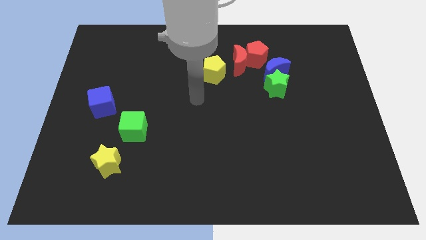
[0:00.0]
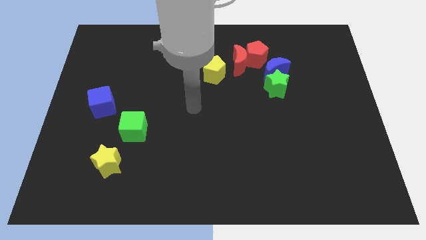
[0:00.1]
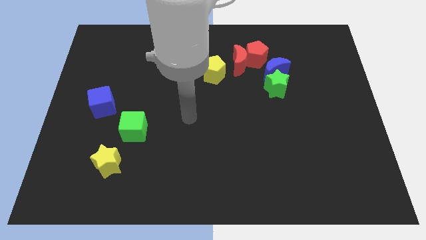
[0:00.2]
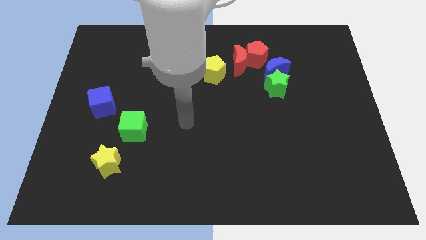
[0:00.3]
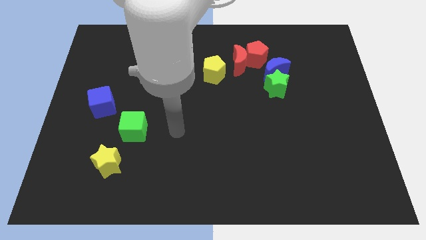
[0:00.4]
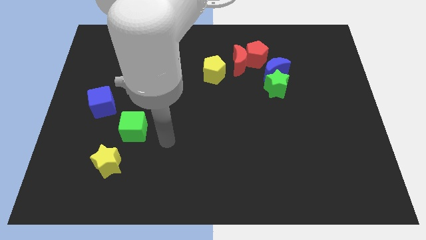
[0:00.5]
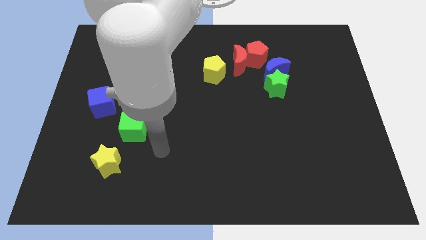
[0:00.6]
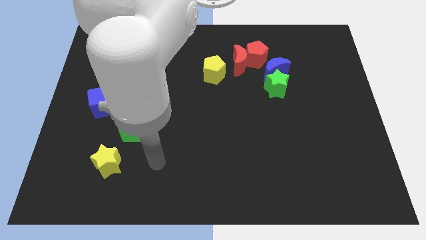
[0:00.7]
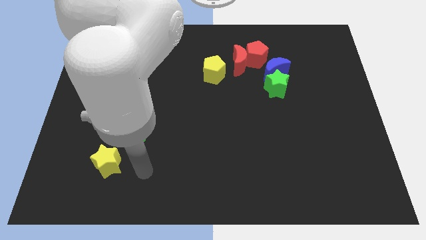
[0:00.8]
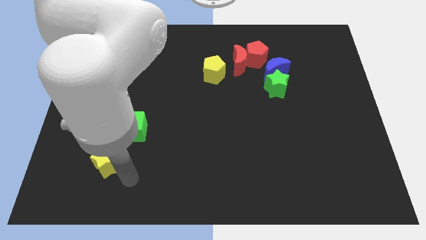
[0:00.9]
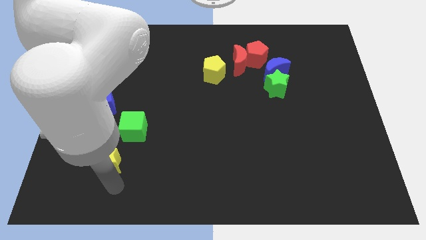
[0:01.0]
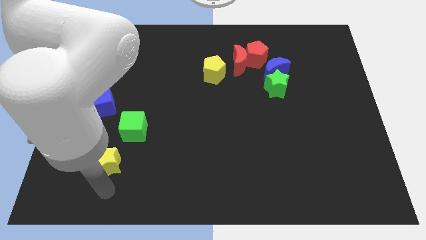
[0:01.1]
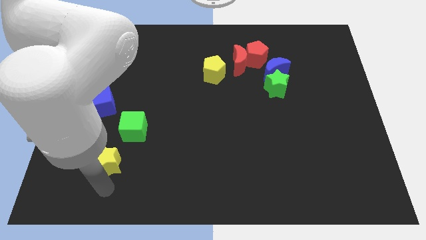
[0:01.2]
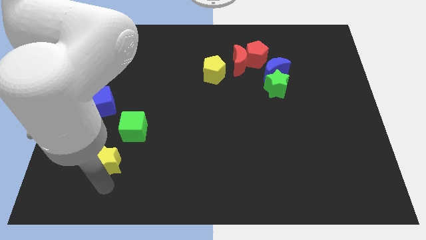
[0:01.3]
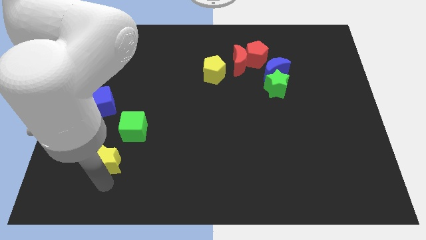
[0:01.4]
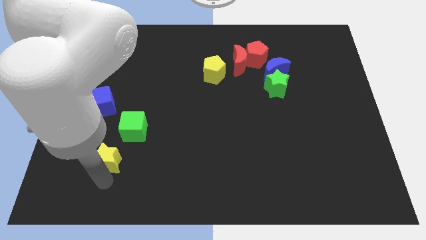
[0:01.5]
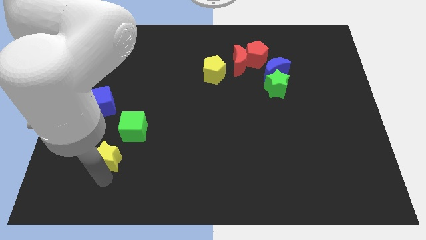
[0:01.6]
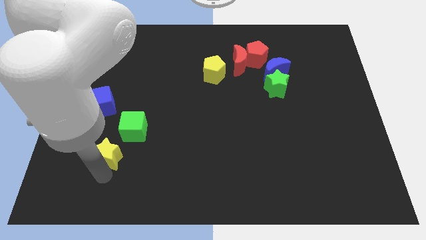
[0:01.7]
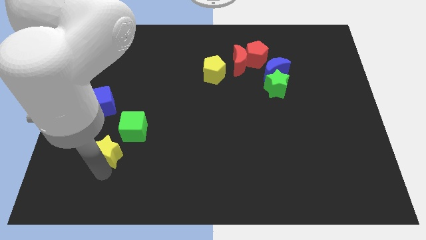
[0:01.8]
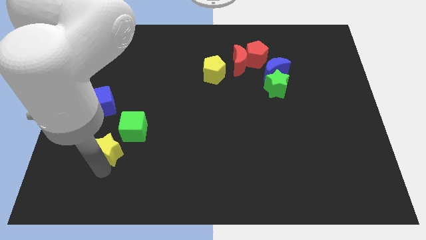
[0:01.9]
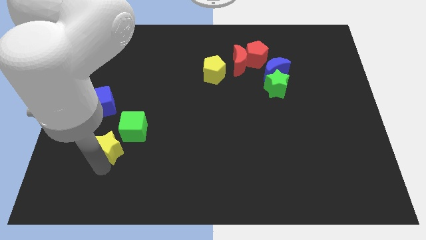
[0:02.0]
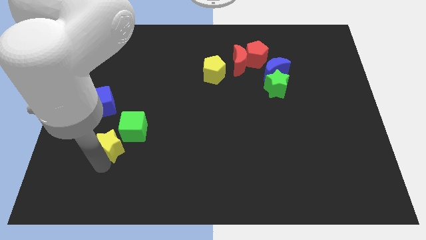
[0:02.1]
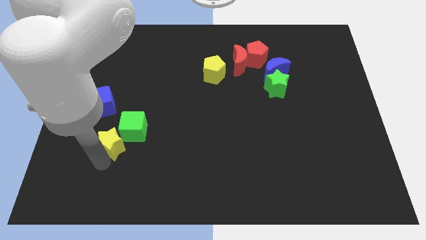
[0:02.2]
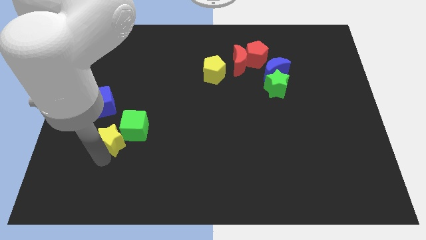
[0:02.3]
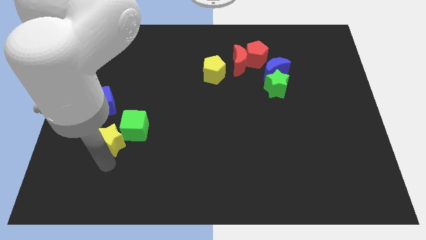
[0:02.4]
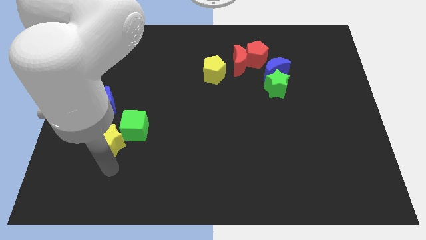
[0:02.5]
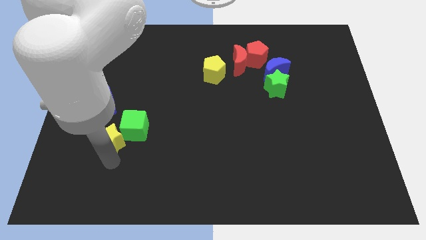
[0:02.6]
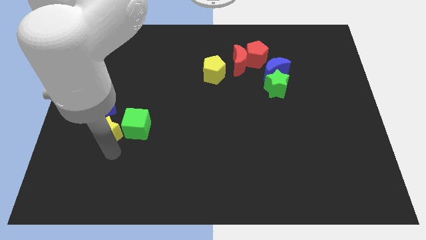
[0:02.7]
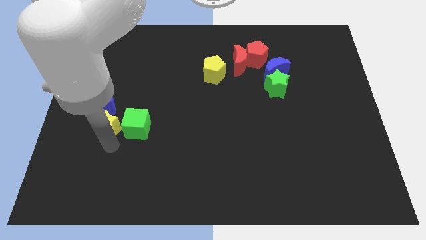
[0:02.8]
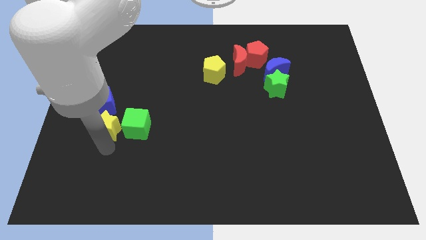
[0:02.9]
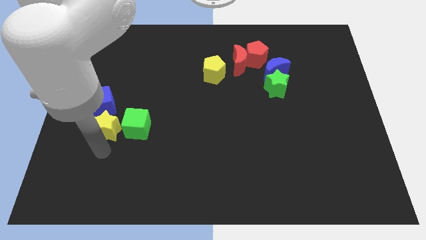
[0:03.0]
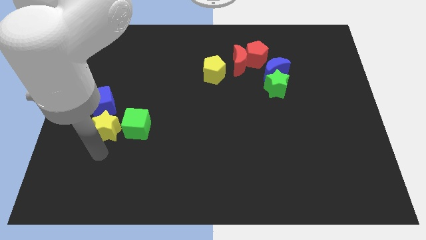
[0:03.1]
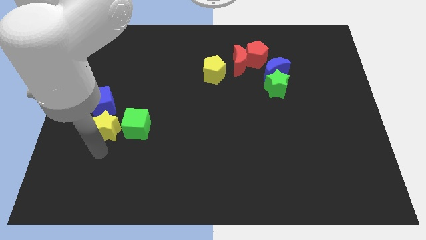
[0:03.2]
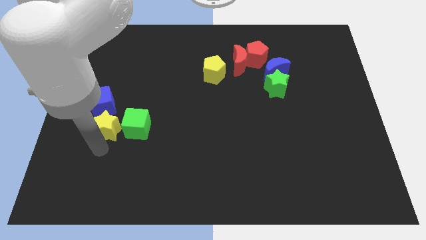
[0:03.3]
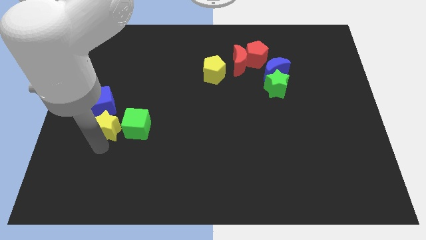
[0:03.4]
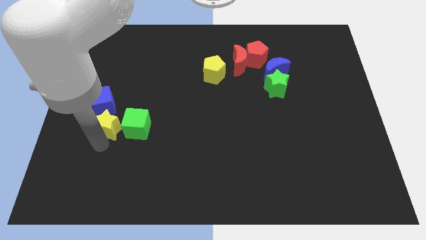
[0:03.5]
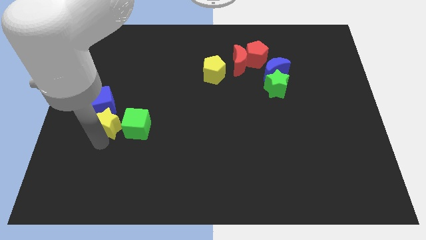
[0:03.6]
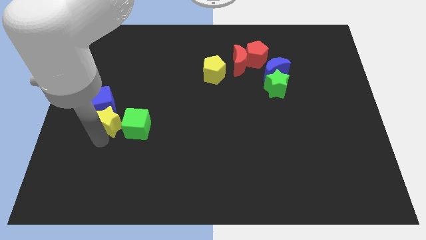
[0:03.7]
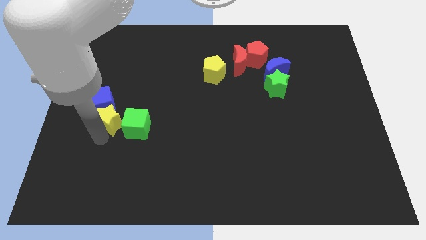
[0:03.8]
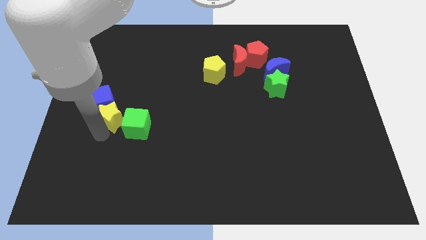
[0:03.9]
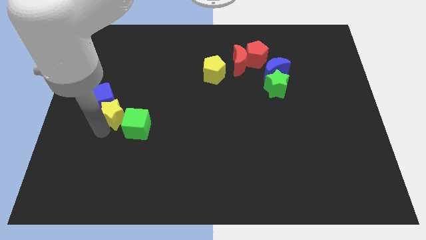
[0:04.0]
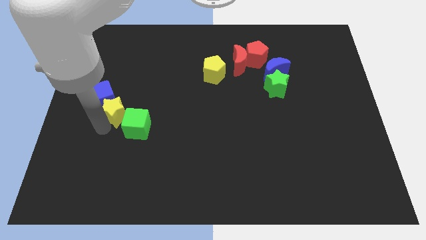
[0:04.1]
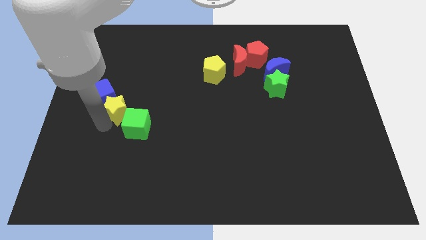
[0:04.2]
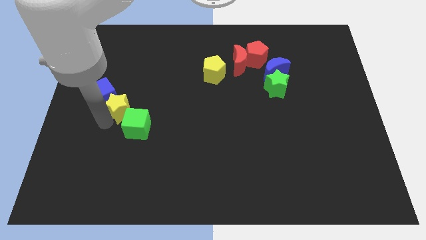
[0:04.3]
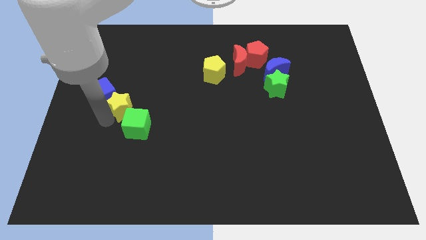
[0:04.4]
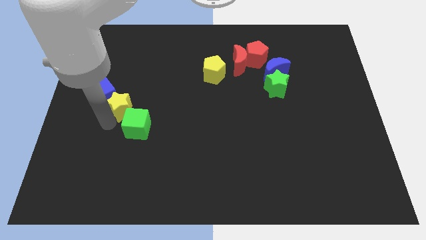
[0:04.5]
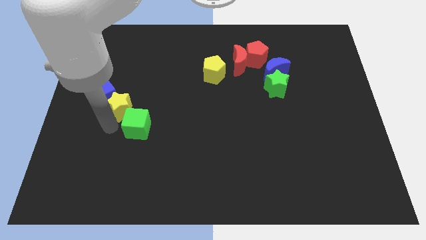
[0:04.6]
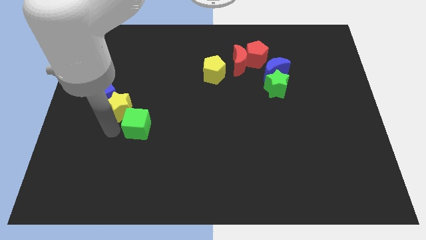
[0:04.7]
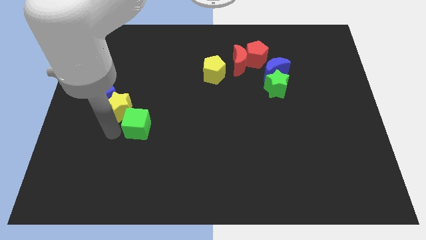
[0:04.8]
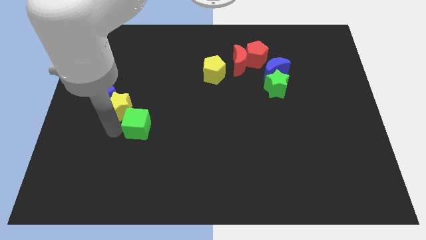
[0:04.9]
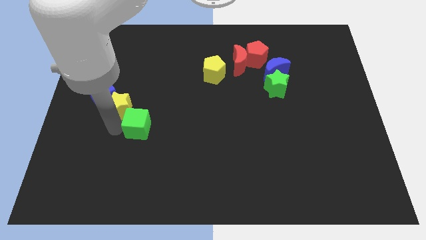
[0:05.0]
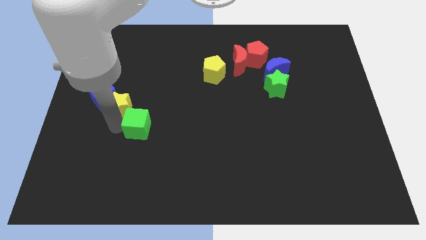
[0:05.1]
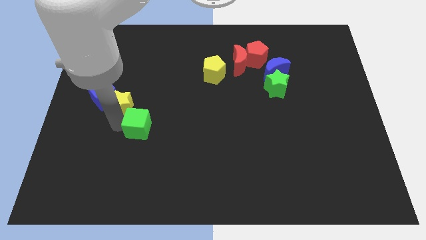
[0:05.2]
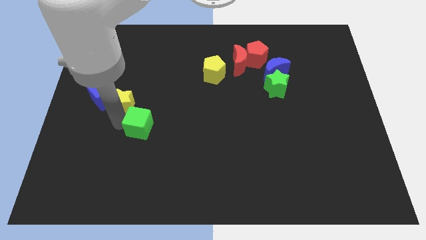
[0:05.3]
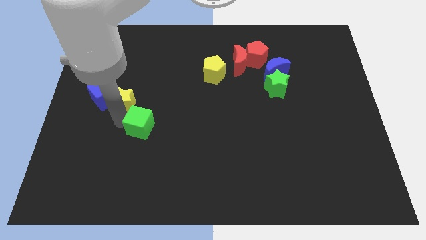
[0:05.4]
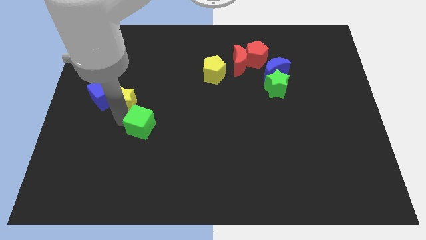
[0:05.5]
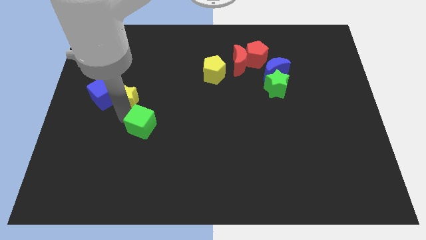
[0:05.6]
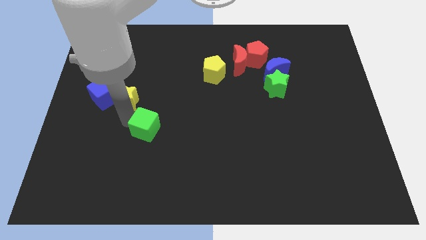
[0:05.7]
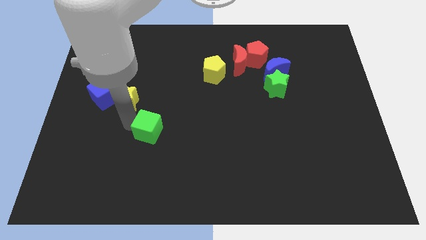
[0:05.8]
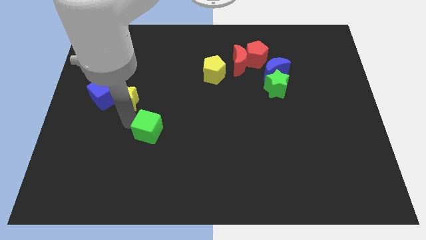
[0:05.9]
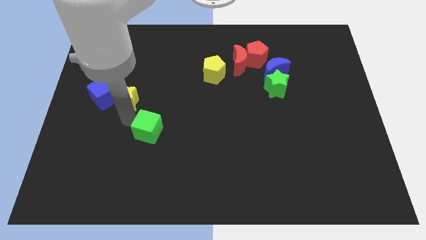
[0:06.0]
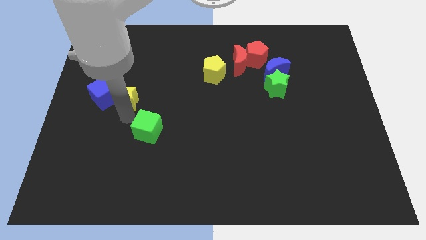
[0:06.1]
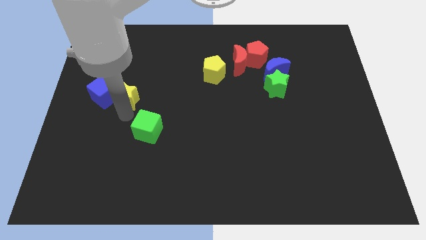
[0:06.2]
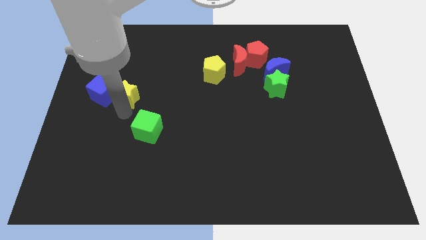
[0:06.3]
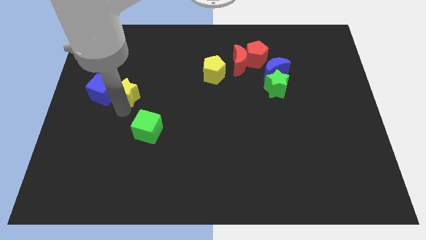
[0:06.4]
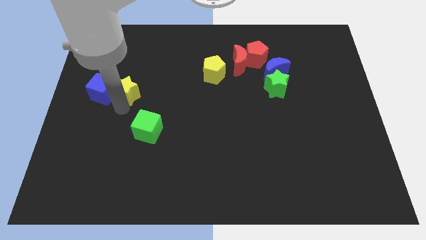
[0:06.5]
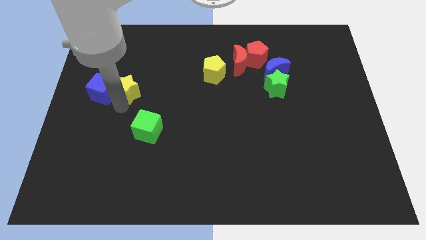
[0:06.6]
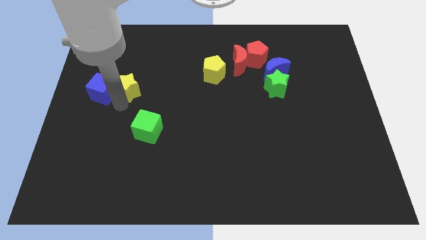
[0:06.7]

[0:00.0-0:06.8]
move the yellow star upwards

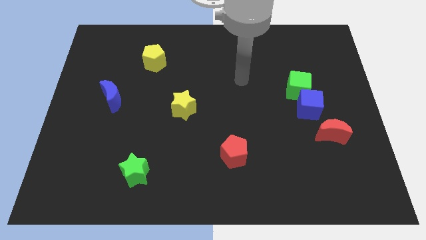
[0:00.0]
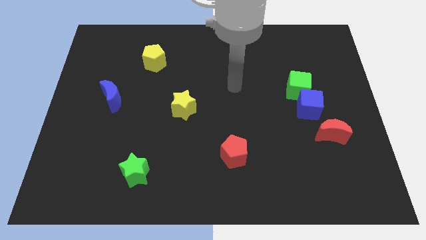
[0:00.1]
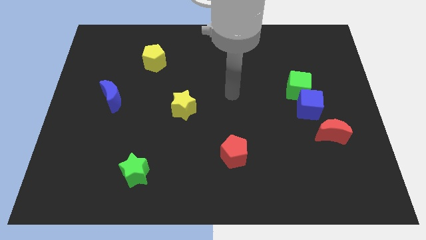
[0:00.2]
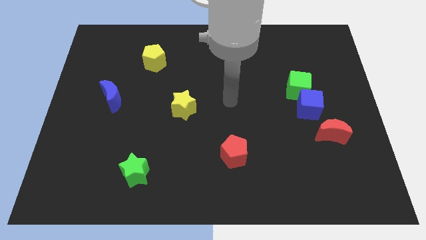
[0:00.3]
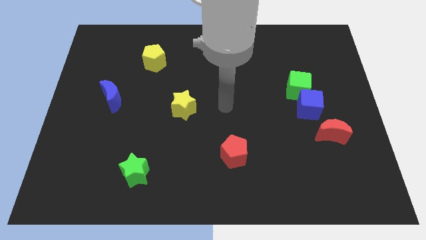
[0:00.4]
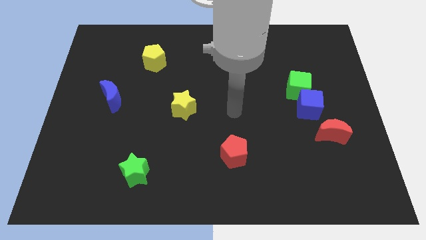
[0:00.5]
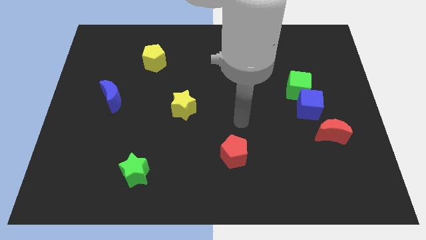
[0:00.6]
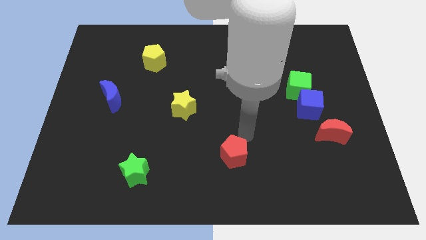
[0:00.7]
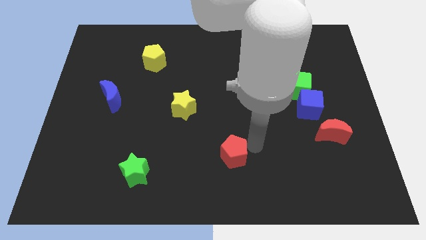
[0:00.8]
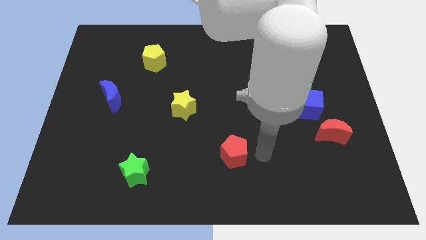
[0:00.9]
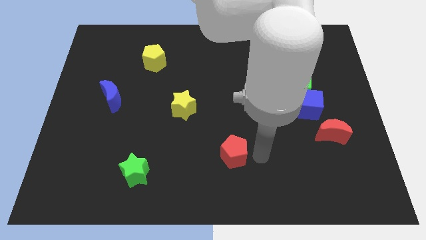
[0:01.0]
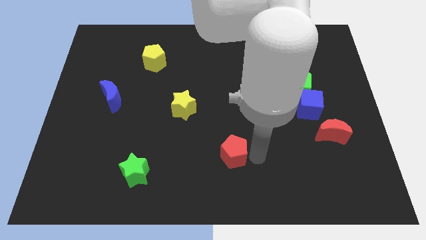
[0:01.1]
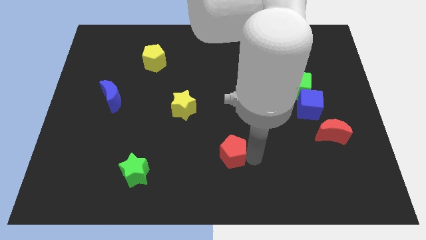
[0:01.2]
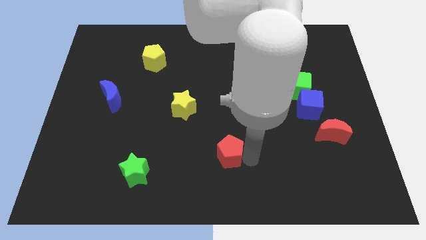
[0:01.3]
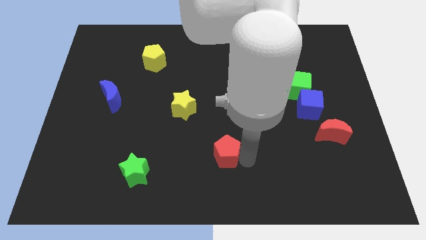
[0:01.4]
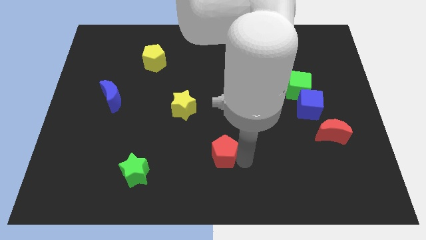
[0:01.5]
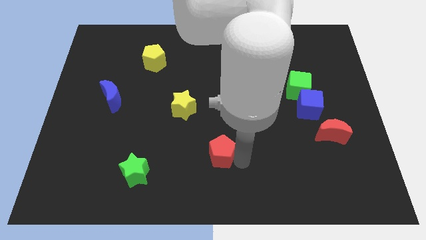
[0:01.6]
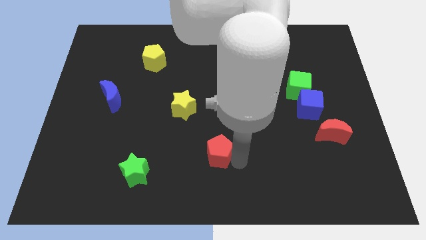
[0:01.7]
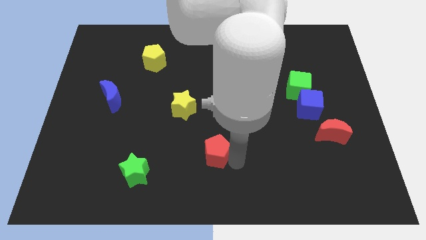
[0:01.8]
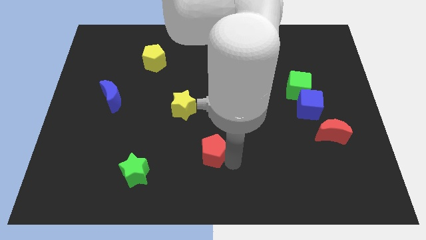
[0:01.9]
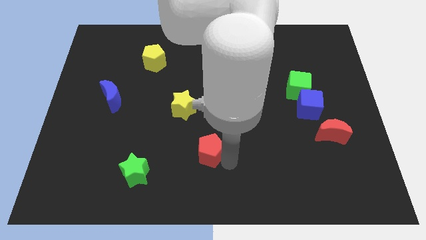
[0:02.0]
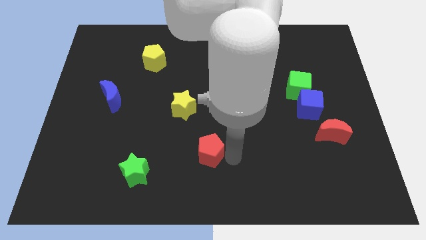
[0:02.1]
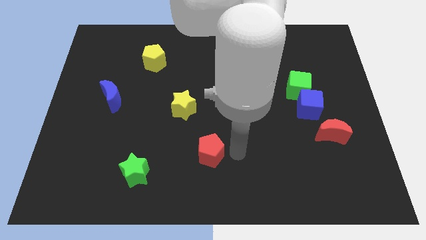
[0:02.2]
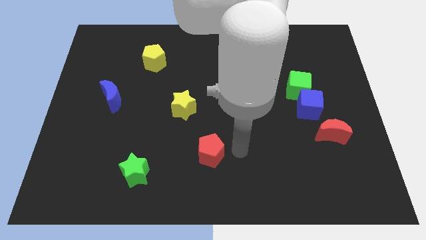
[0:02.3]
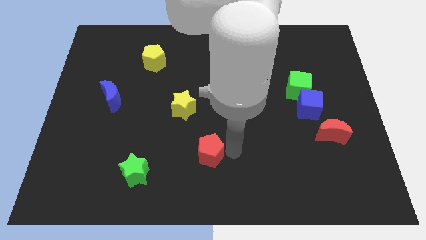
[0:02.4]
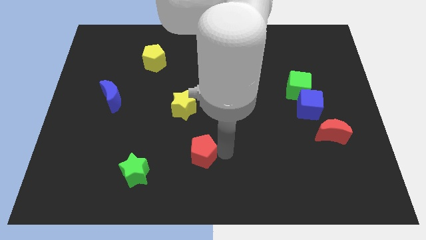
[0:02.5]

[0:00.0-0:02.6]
slightly slide the red pentagon left
